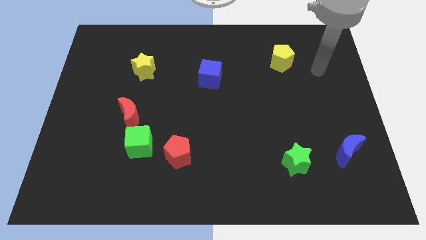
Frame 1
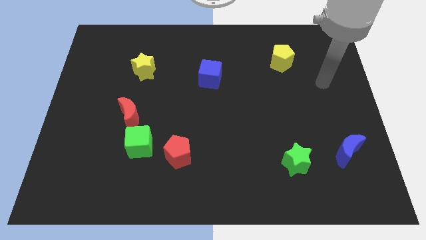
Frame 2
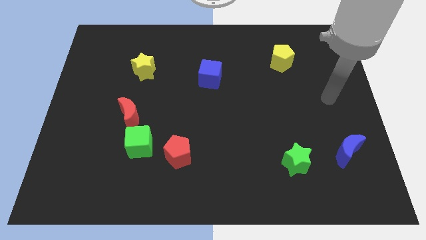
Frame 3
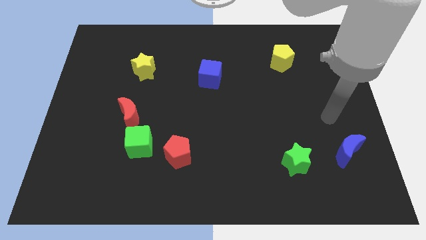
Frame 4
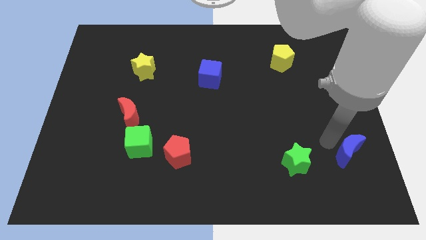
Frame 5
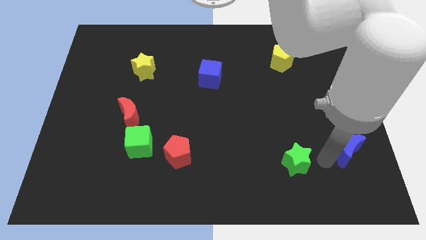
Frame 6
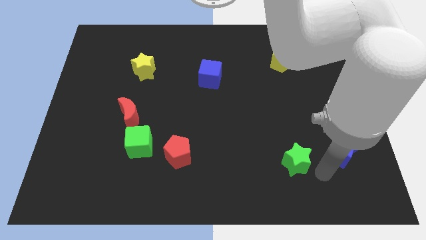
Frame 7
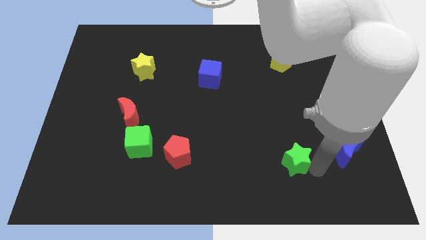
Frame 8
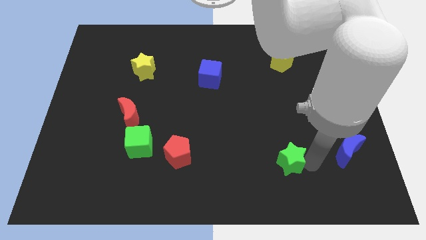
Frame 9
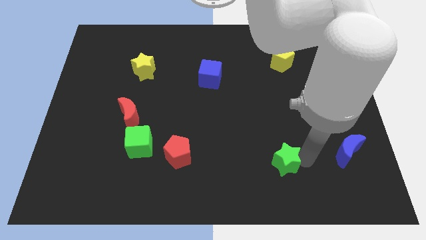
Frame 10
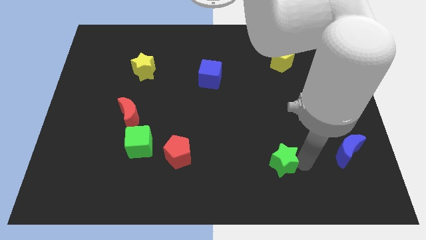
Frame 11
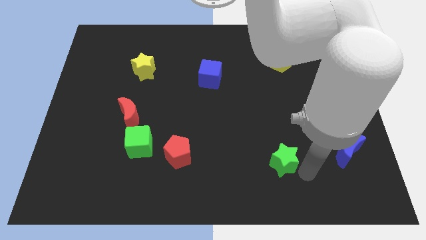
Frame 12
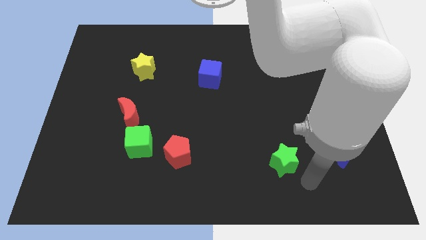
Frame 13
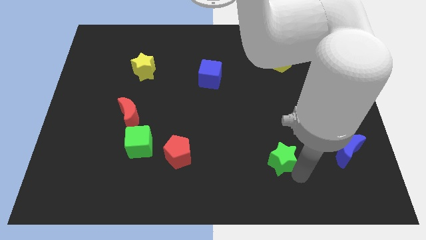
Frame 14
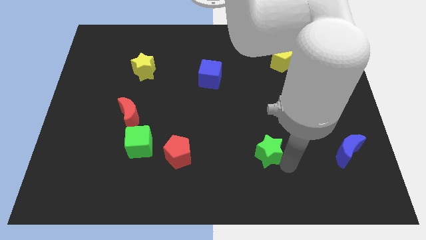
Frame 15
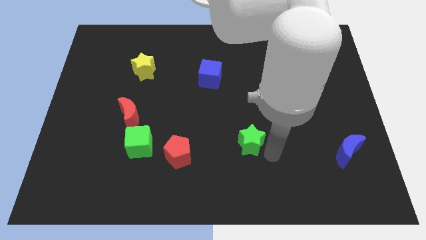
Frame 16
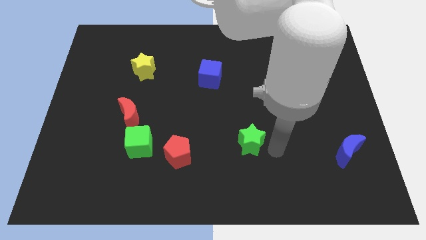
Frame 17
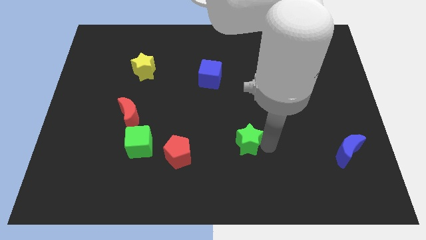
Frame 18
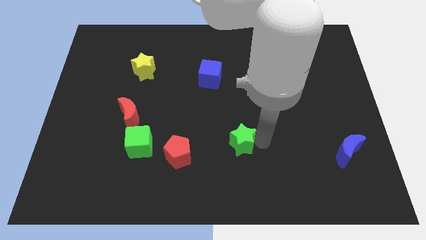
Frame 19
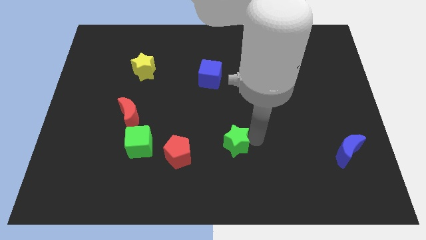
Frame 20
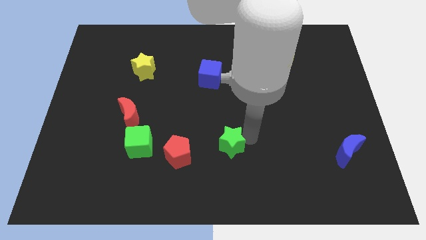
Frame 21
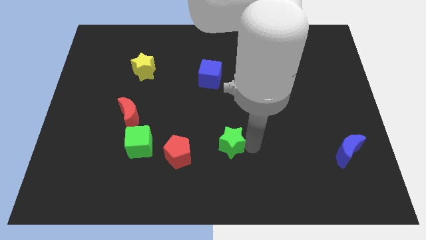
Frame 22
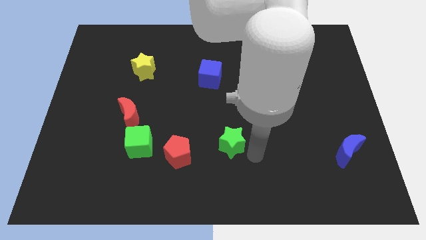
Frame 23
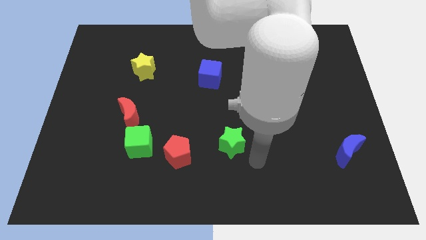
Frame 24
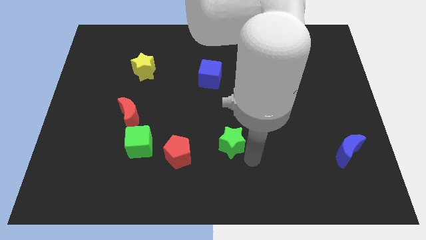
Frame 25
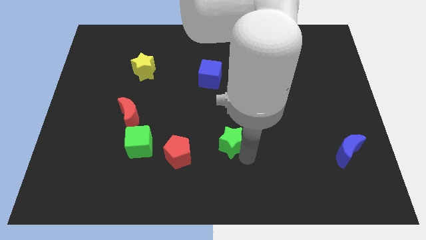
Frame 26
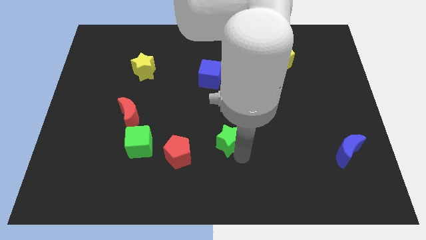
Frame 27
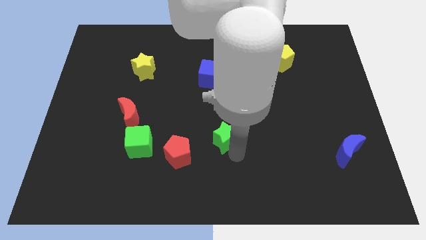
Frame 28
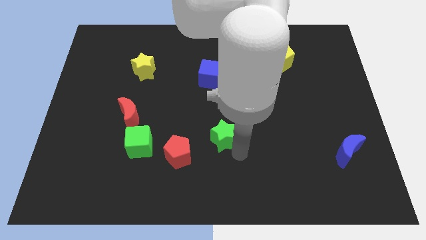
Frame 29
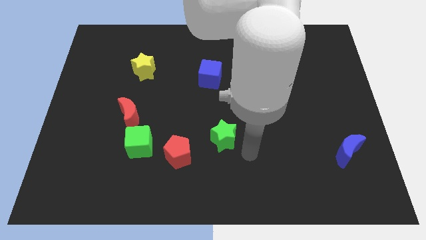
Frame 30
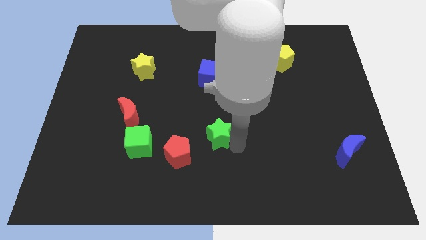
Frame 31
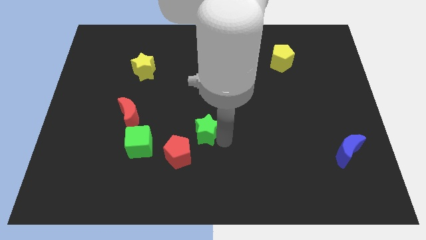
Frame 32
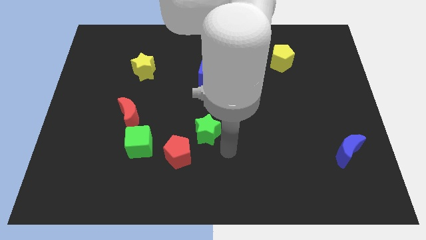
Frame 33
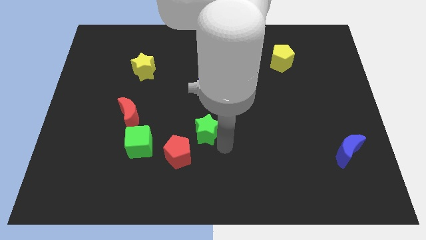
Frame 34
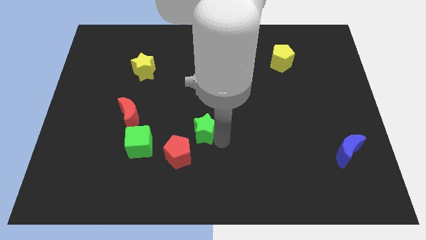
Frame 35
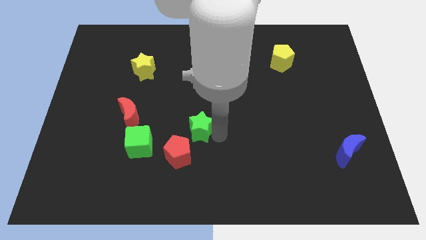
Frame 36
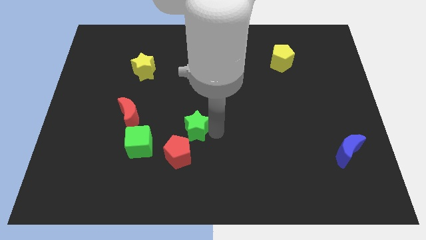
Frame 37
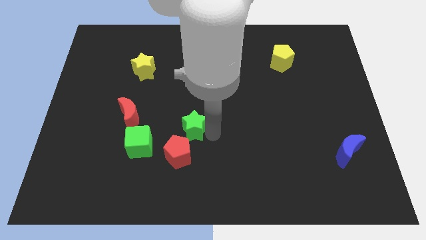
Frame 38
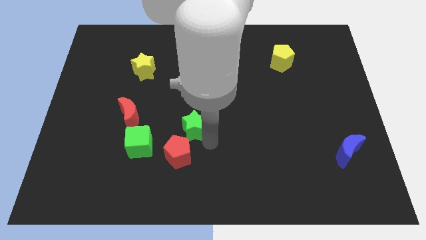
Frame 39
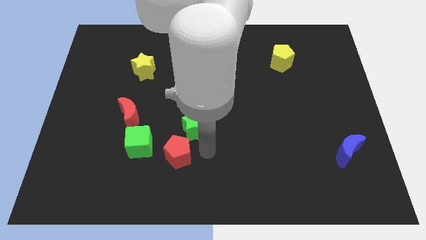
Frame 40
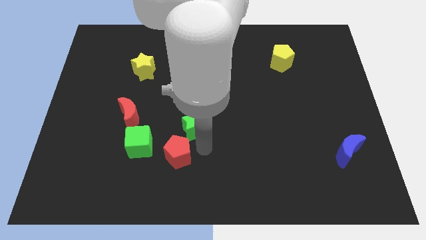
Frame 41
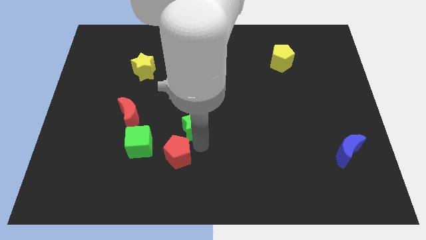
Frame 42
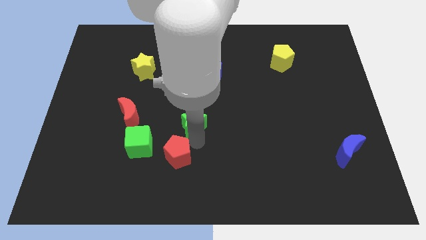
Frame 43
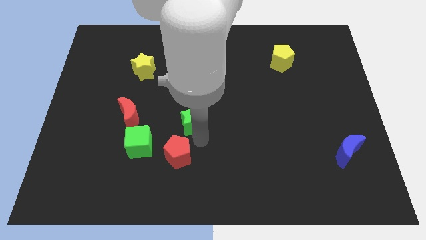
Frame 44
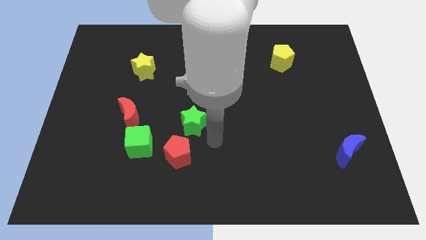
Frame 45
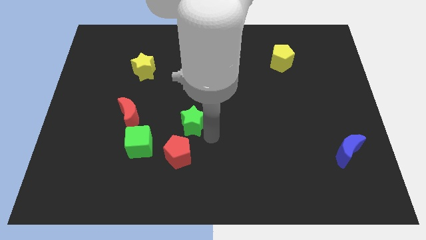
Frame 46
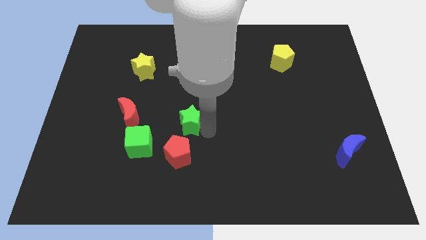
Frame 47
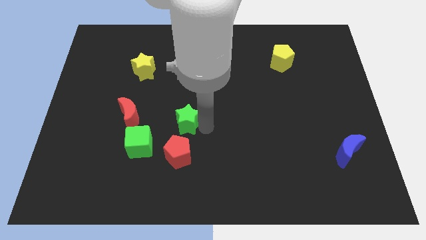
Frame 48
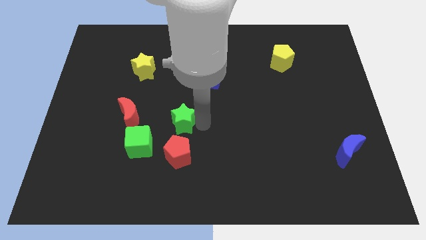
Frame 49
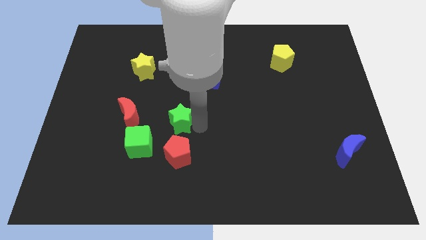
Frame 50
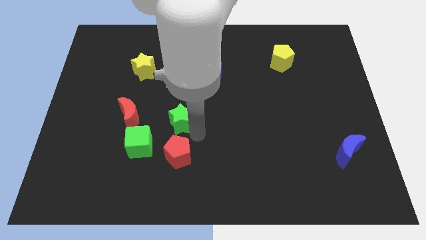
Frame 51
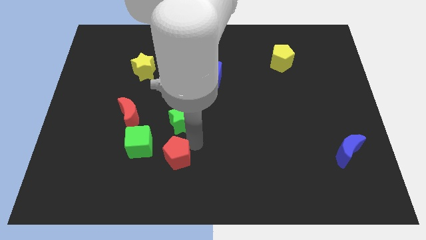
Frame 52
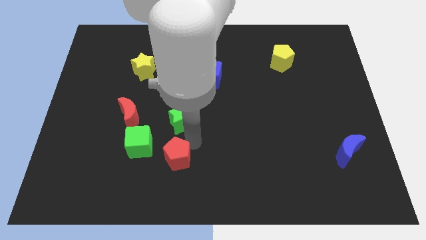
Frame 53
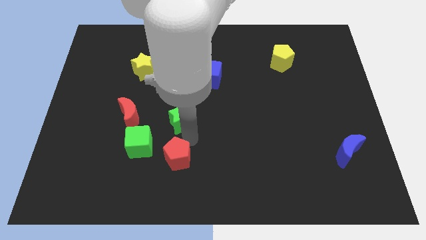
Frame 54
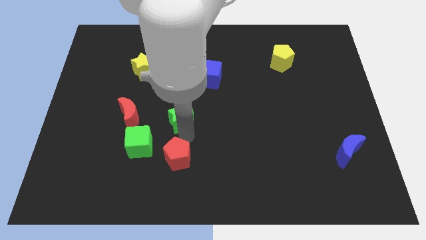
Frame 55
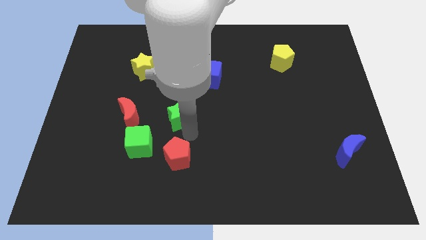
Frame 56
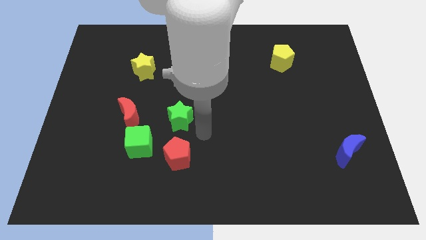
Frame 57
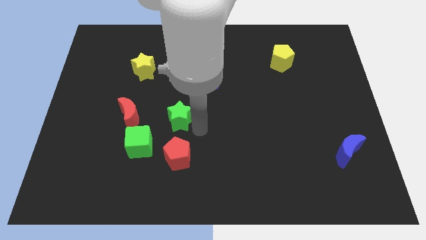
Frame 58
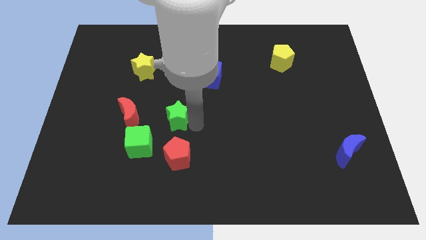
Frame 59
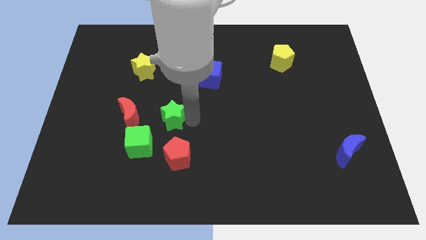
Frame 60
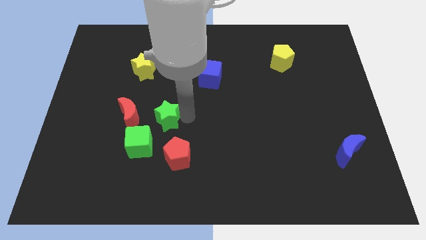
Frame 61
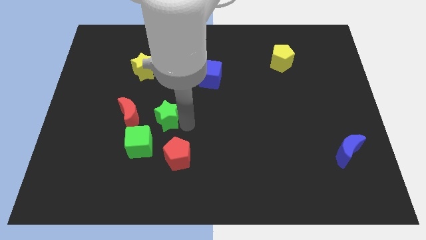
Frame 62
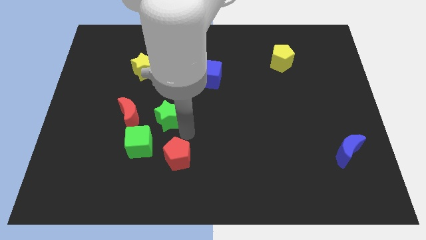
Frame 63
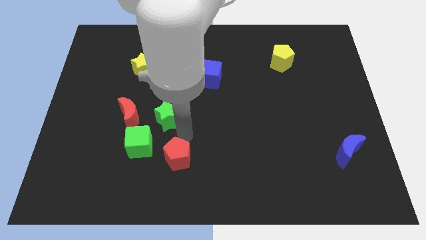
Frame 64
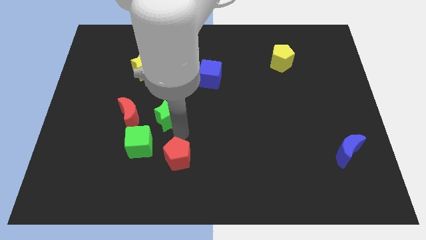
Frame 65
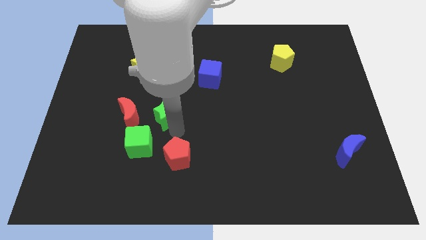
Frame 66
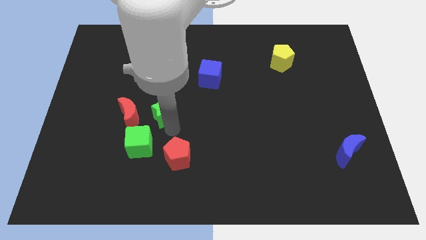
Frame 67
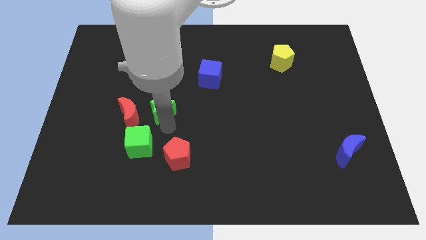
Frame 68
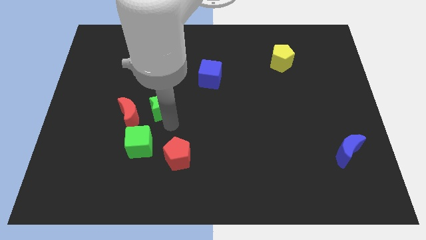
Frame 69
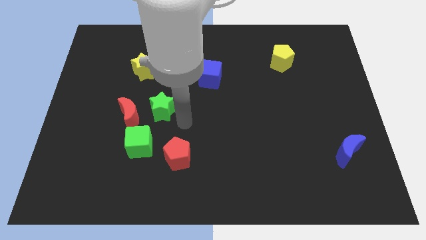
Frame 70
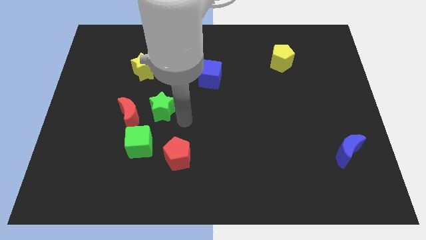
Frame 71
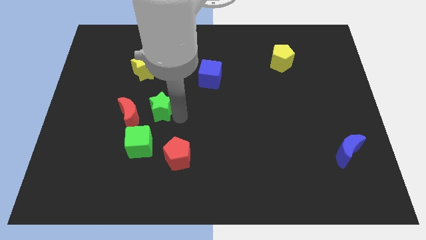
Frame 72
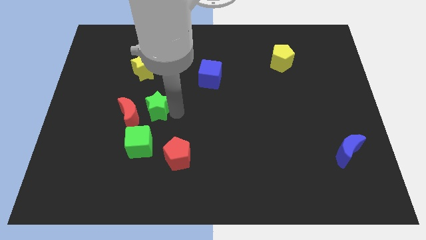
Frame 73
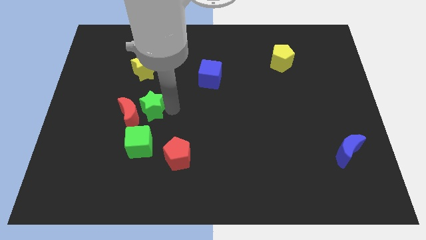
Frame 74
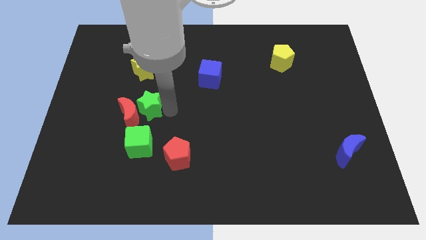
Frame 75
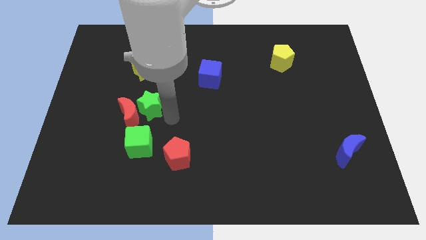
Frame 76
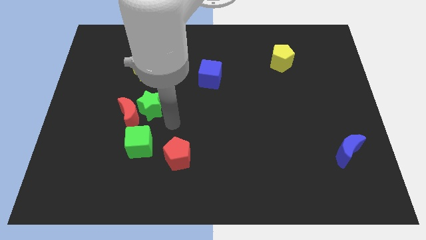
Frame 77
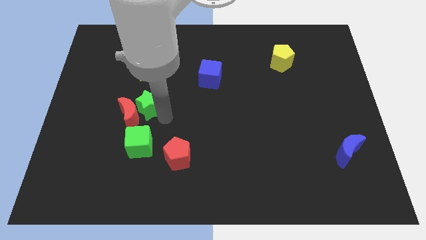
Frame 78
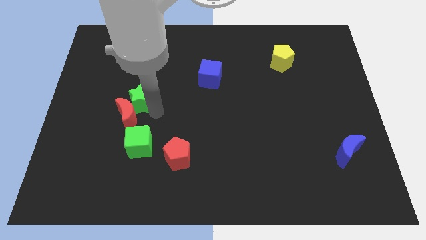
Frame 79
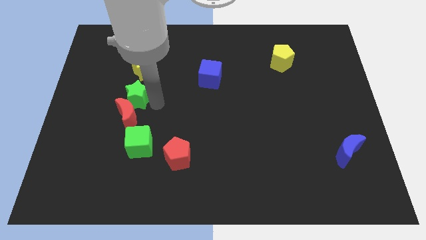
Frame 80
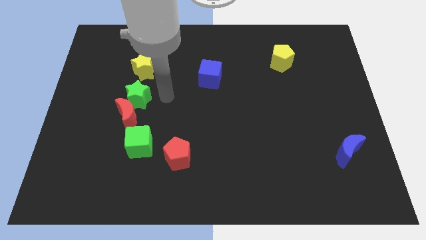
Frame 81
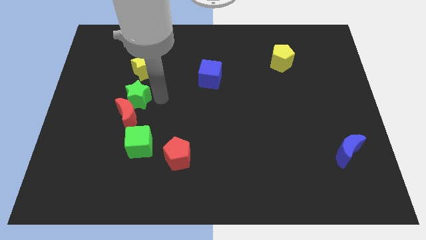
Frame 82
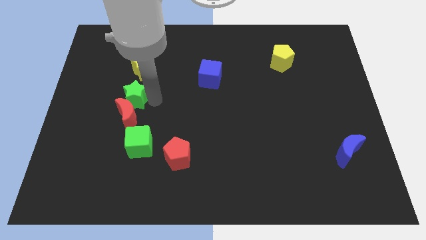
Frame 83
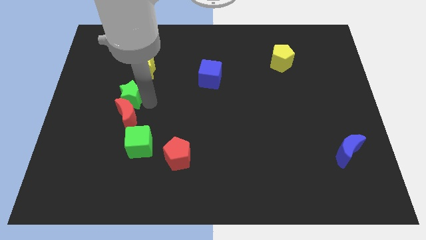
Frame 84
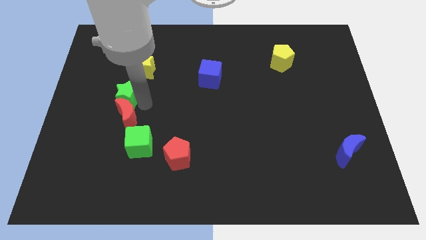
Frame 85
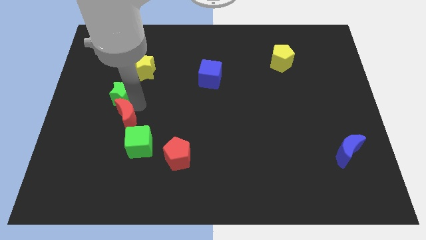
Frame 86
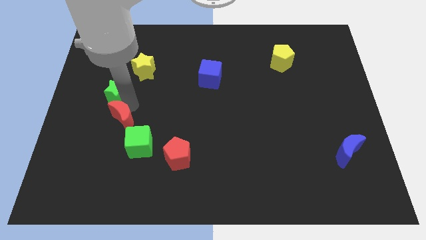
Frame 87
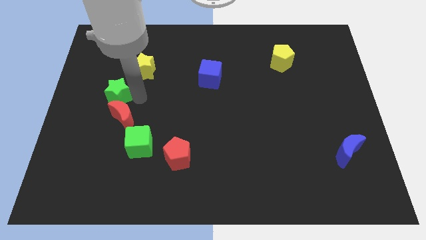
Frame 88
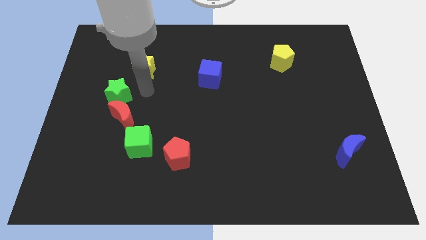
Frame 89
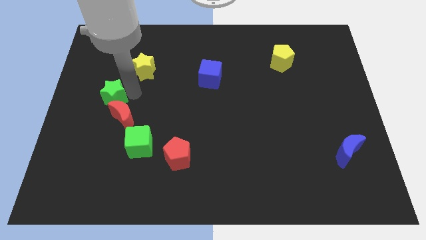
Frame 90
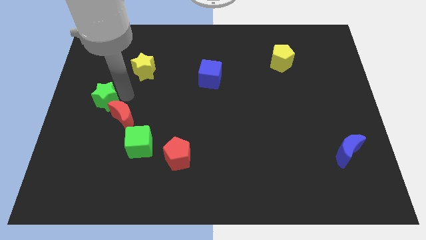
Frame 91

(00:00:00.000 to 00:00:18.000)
push the green star to the center left
